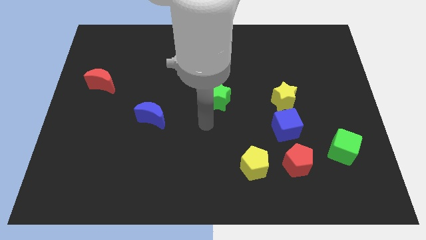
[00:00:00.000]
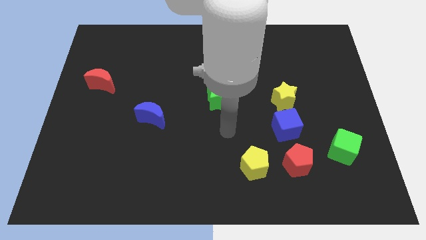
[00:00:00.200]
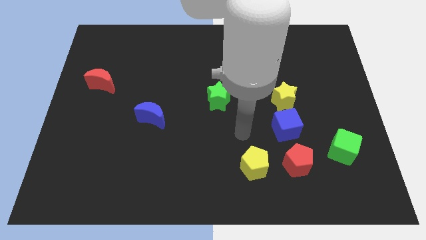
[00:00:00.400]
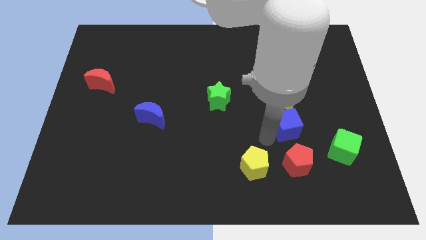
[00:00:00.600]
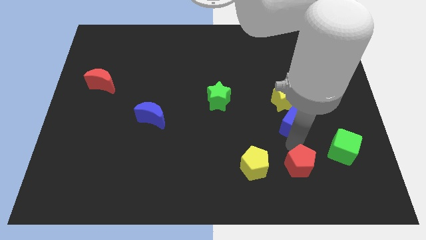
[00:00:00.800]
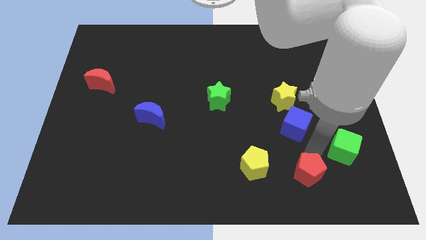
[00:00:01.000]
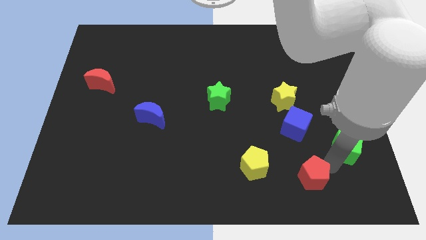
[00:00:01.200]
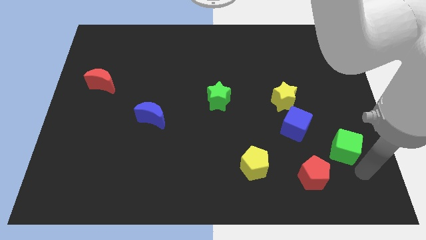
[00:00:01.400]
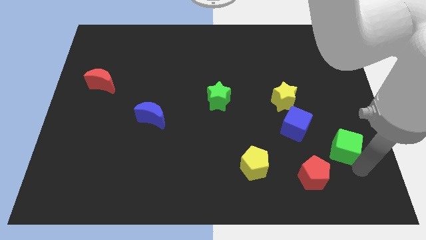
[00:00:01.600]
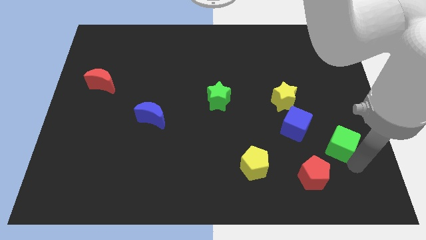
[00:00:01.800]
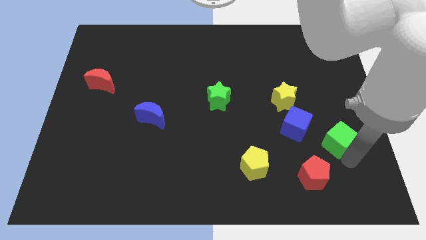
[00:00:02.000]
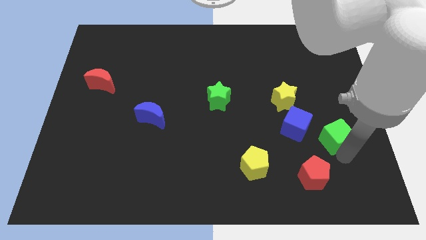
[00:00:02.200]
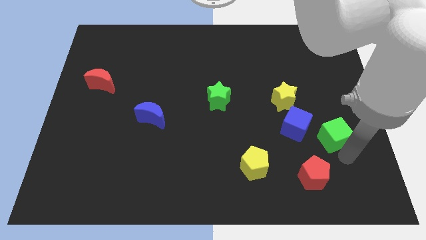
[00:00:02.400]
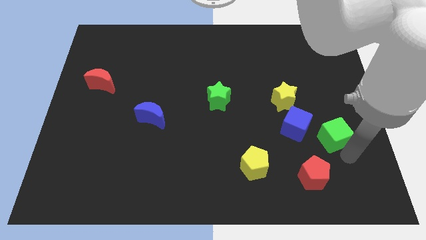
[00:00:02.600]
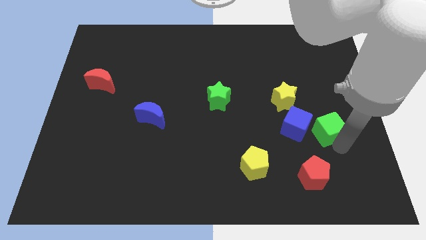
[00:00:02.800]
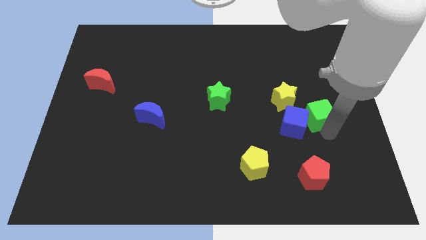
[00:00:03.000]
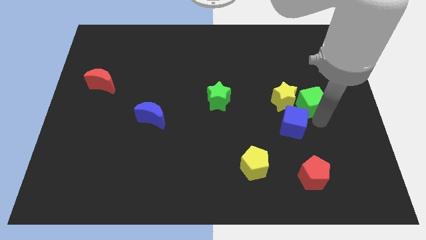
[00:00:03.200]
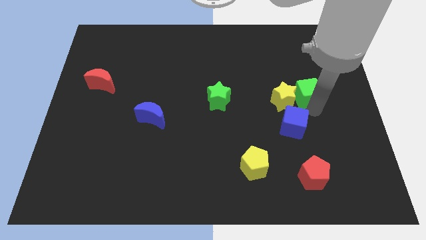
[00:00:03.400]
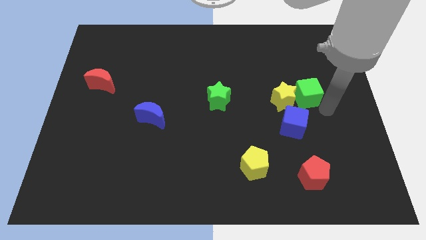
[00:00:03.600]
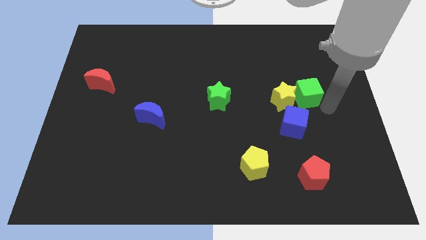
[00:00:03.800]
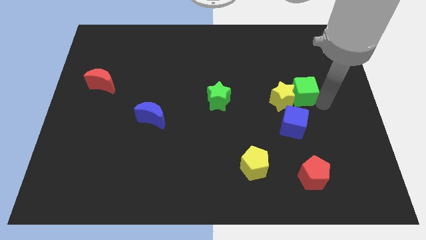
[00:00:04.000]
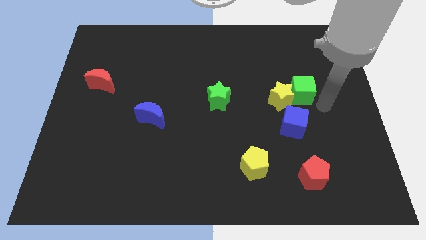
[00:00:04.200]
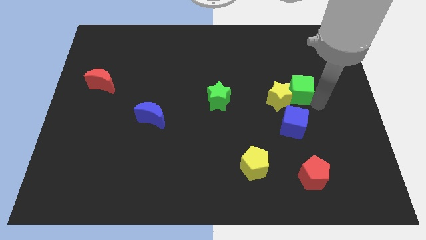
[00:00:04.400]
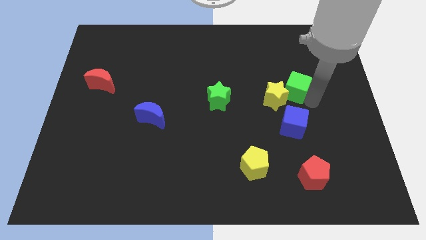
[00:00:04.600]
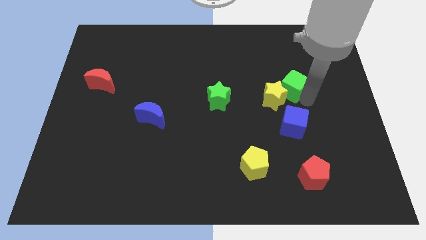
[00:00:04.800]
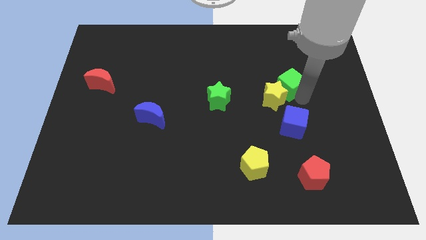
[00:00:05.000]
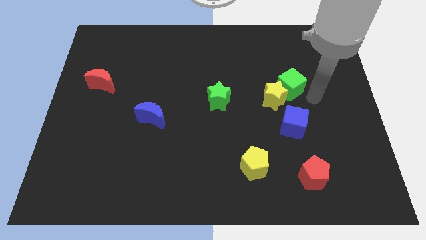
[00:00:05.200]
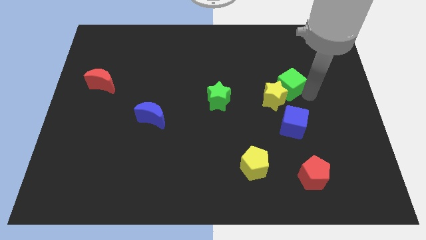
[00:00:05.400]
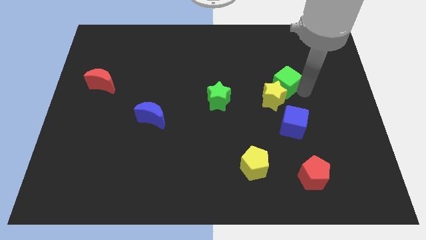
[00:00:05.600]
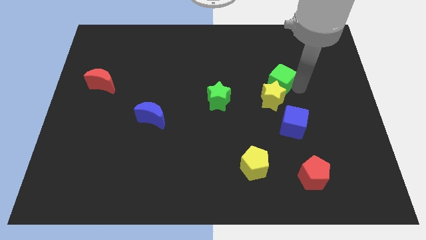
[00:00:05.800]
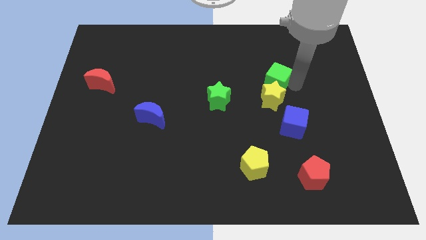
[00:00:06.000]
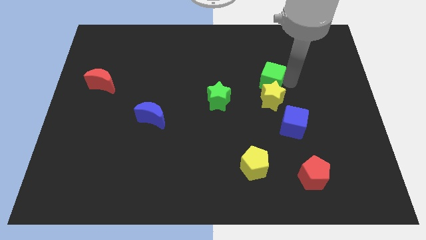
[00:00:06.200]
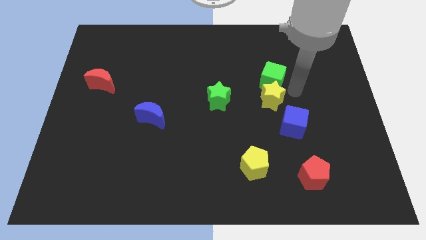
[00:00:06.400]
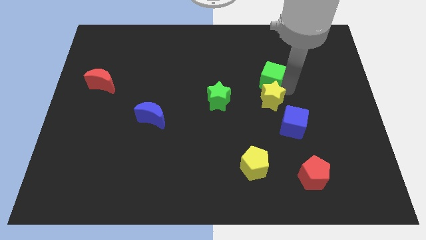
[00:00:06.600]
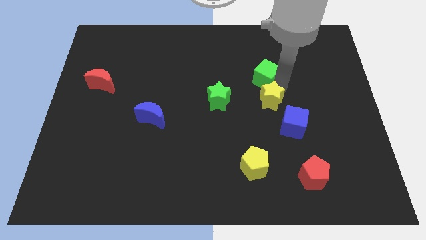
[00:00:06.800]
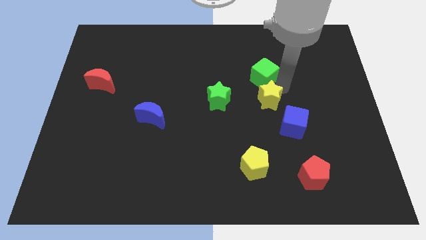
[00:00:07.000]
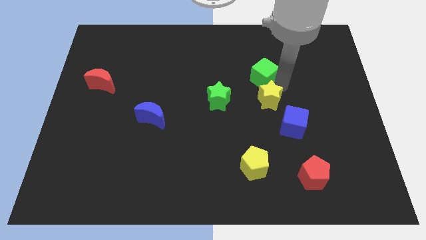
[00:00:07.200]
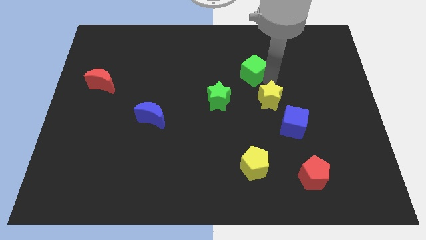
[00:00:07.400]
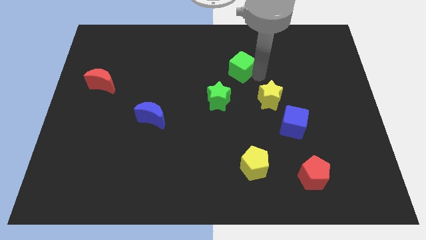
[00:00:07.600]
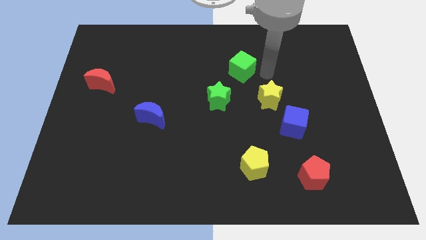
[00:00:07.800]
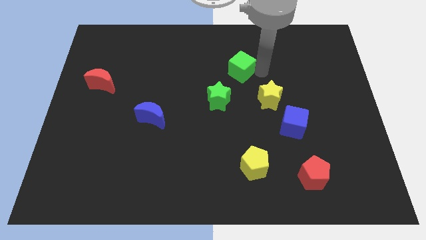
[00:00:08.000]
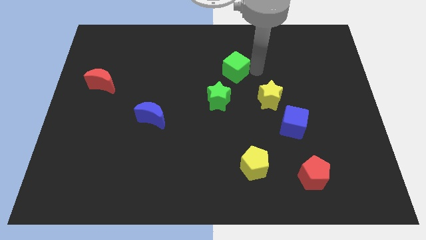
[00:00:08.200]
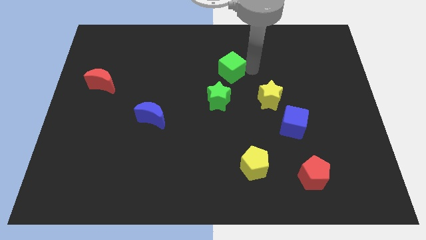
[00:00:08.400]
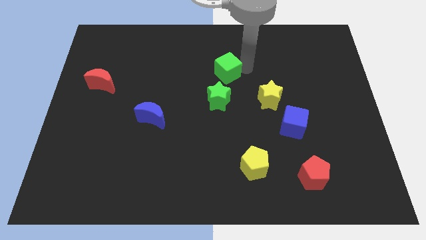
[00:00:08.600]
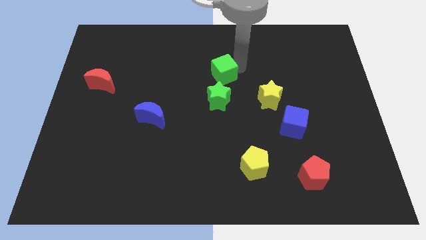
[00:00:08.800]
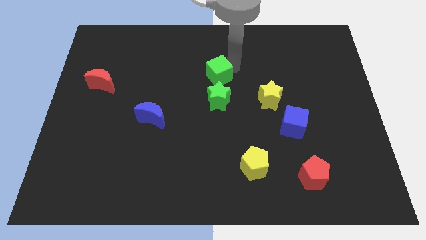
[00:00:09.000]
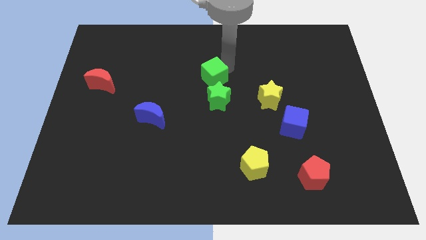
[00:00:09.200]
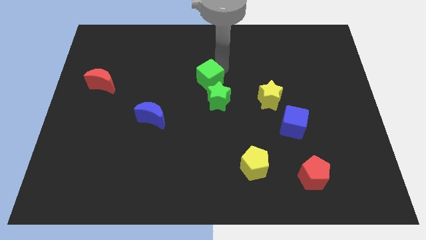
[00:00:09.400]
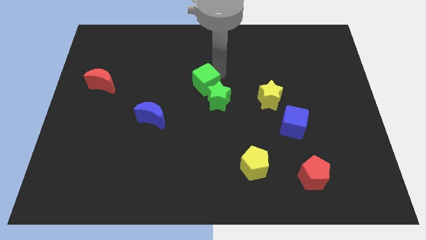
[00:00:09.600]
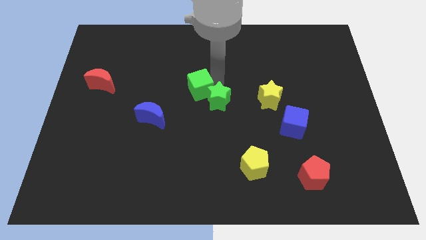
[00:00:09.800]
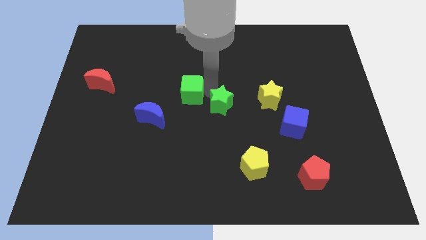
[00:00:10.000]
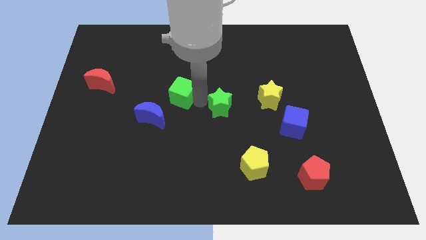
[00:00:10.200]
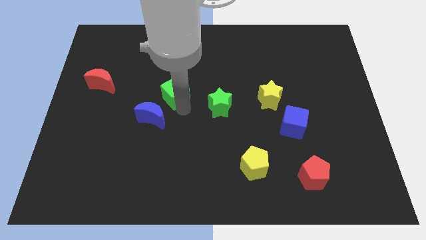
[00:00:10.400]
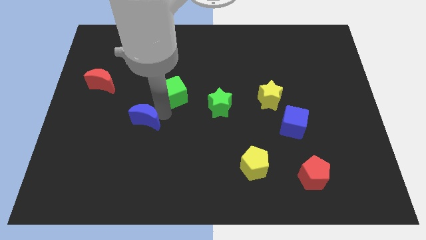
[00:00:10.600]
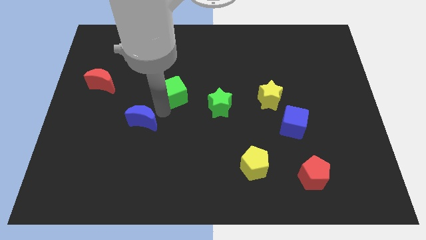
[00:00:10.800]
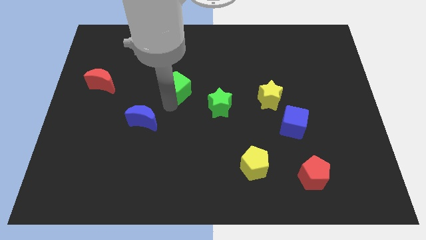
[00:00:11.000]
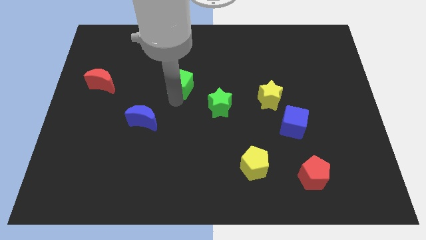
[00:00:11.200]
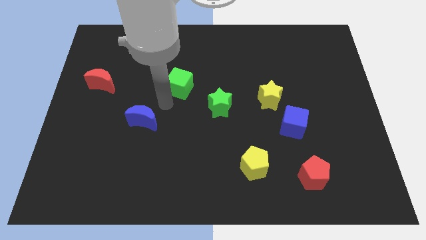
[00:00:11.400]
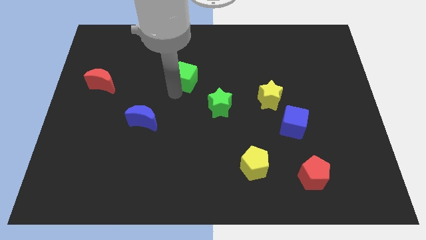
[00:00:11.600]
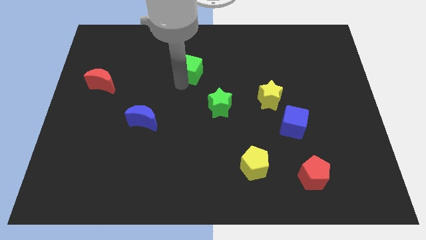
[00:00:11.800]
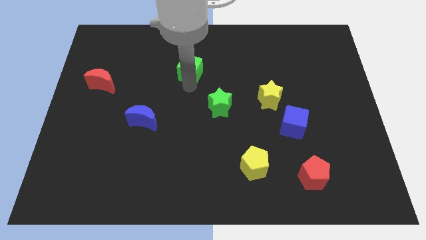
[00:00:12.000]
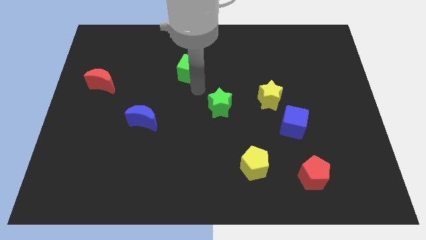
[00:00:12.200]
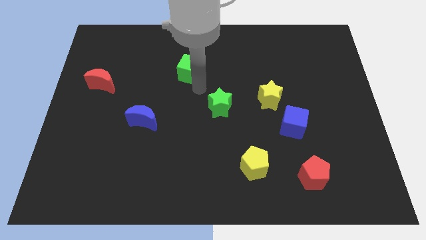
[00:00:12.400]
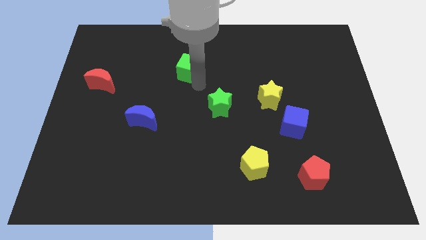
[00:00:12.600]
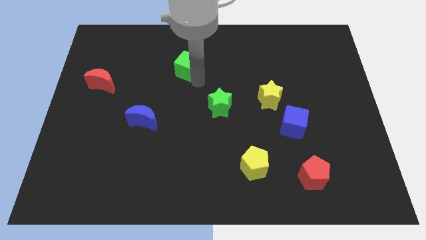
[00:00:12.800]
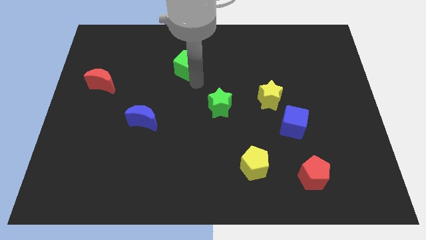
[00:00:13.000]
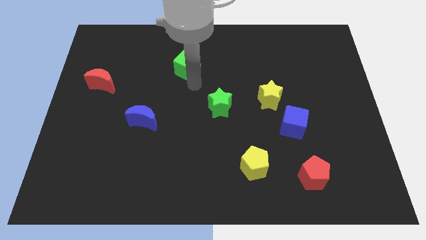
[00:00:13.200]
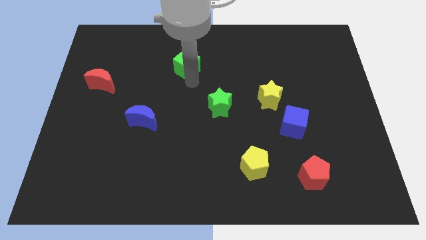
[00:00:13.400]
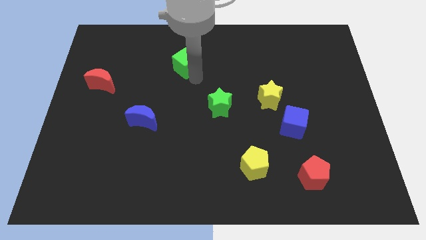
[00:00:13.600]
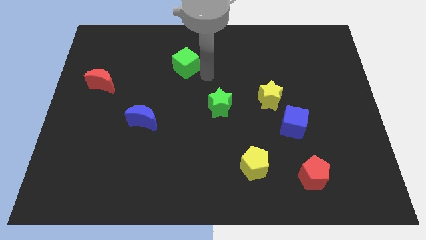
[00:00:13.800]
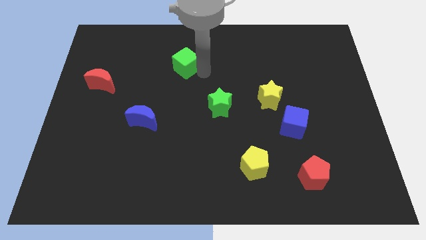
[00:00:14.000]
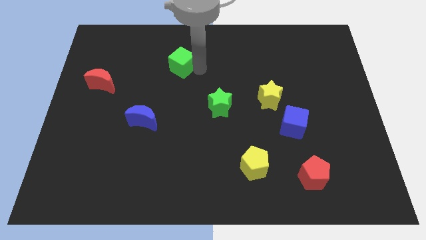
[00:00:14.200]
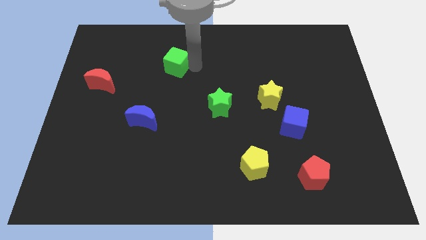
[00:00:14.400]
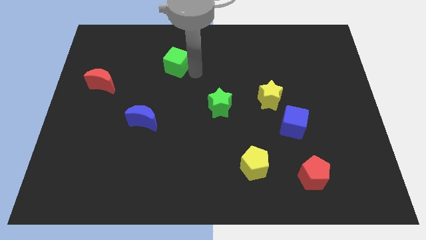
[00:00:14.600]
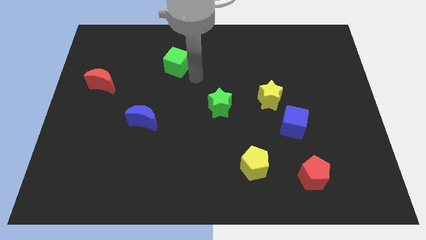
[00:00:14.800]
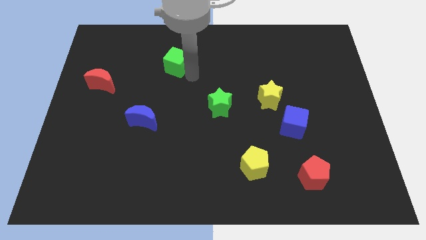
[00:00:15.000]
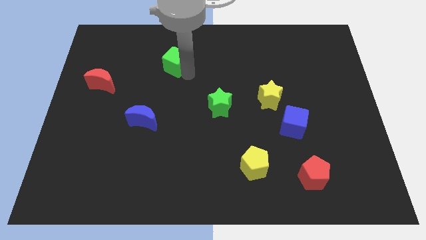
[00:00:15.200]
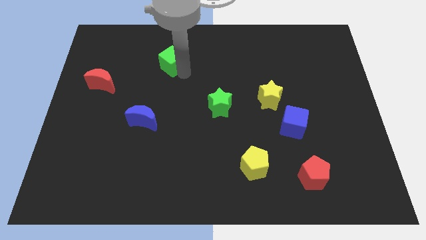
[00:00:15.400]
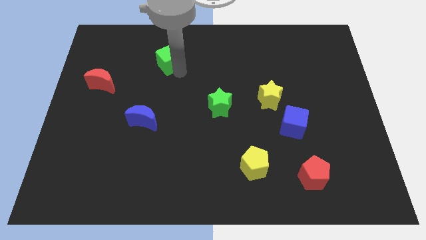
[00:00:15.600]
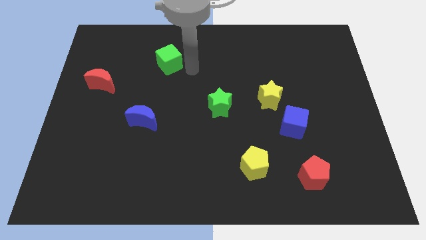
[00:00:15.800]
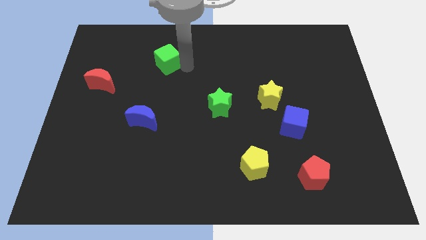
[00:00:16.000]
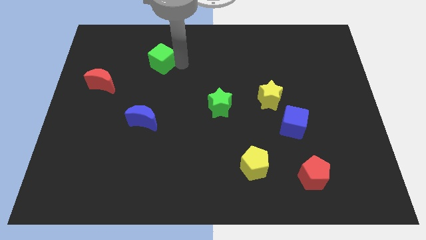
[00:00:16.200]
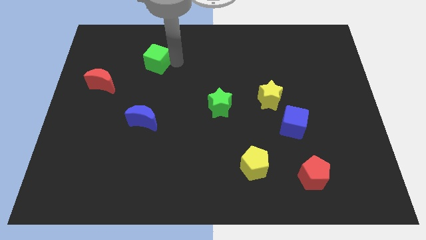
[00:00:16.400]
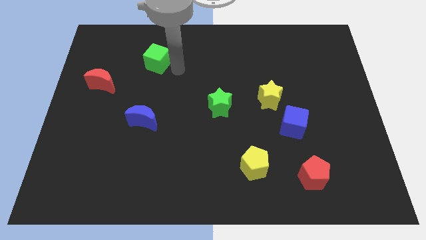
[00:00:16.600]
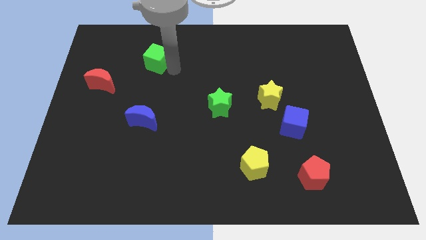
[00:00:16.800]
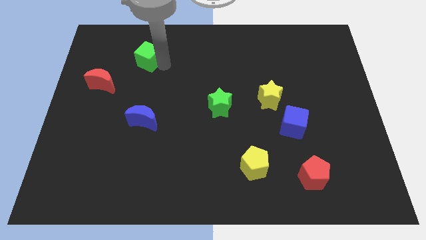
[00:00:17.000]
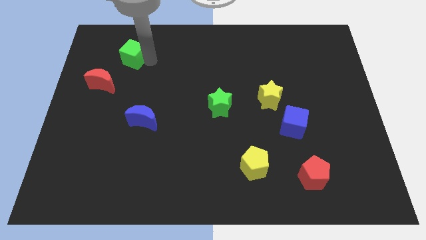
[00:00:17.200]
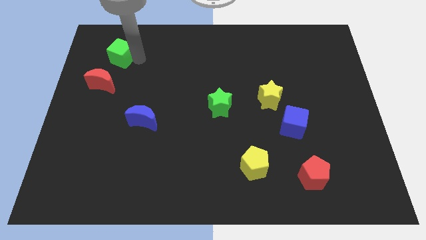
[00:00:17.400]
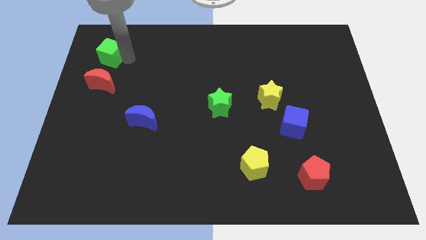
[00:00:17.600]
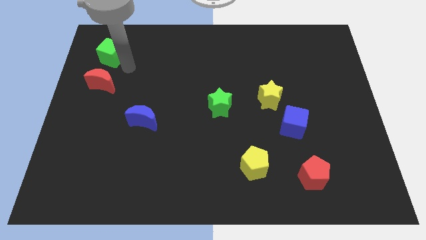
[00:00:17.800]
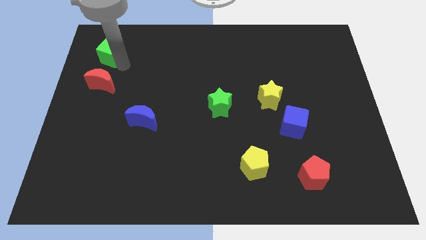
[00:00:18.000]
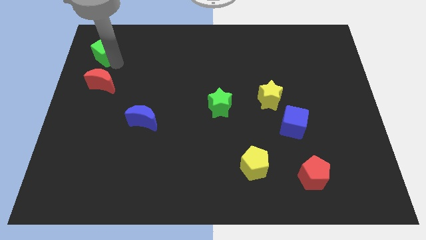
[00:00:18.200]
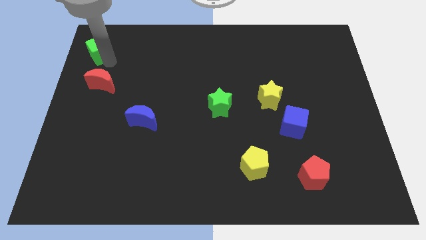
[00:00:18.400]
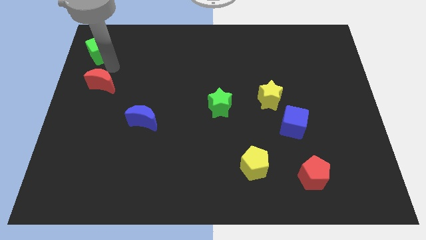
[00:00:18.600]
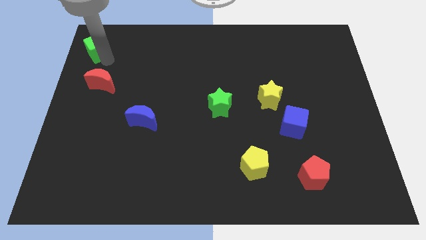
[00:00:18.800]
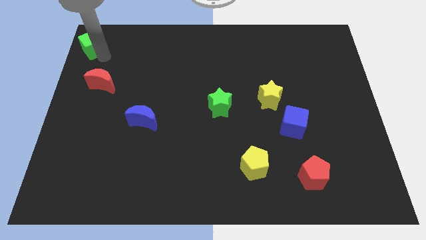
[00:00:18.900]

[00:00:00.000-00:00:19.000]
move the green cube to the top left
